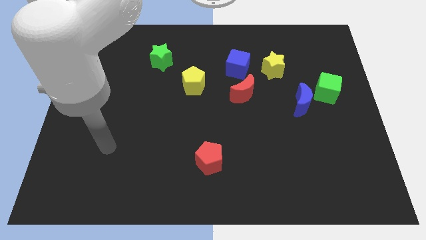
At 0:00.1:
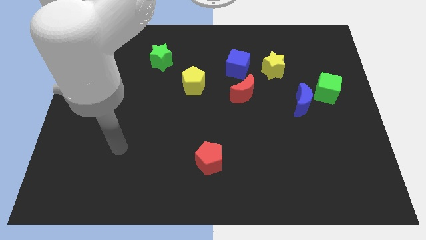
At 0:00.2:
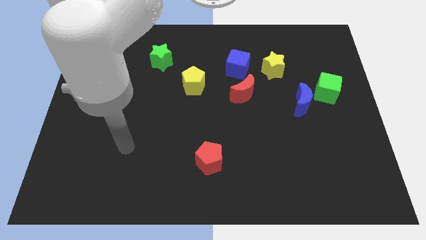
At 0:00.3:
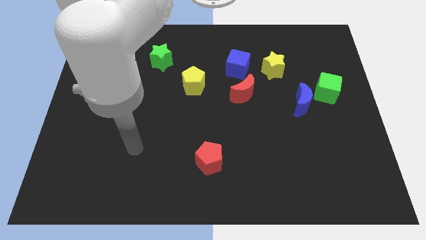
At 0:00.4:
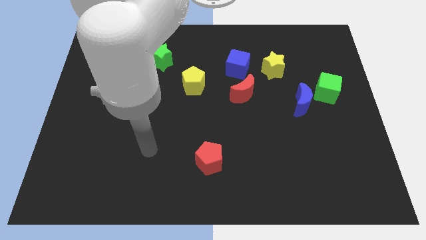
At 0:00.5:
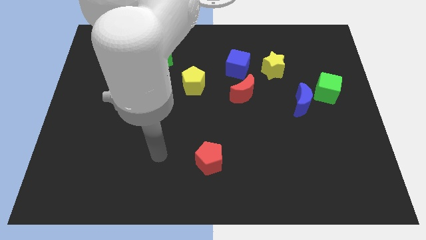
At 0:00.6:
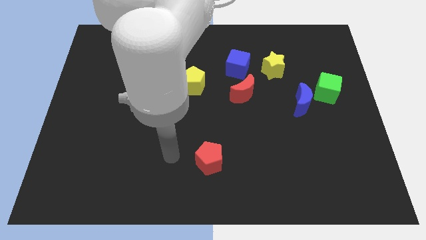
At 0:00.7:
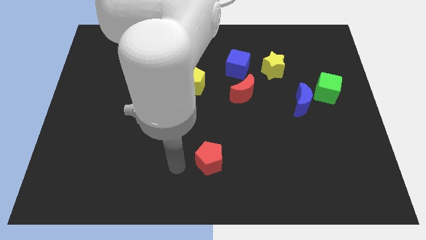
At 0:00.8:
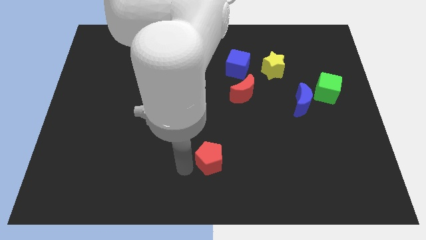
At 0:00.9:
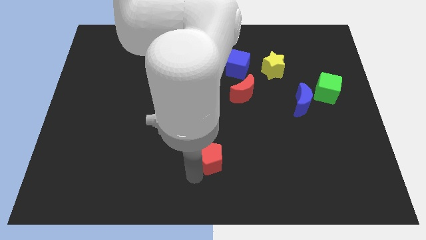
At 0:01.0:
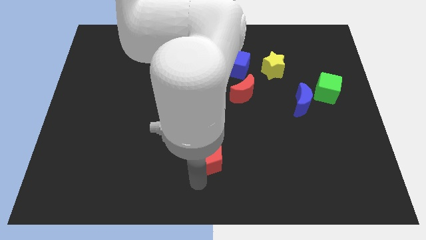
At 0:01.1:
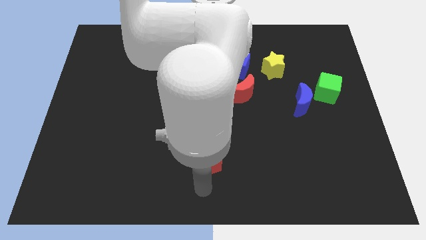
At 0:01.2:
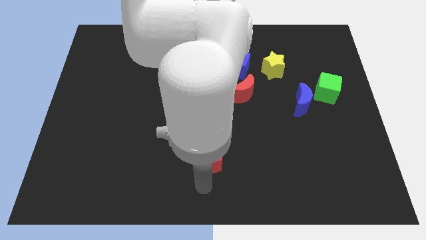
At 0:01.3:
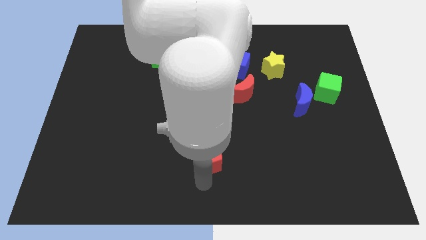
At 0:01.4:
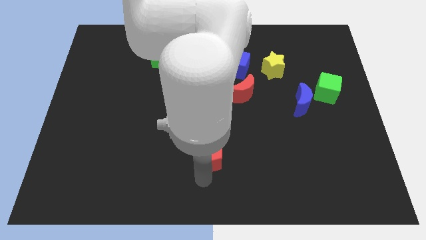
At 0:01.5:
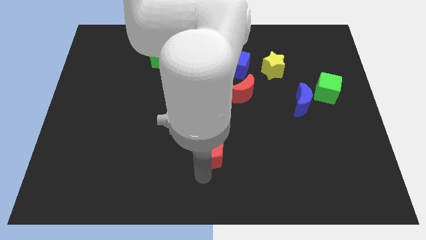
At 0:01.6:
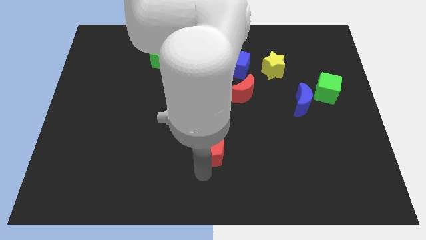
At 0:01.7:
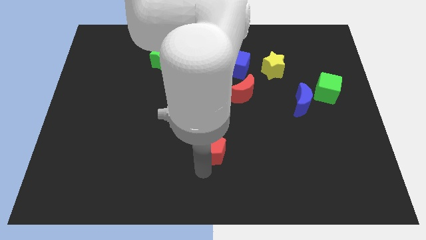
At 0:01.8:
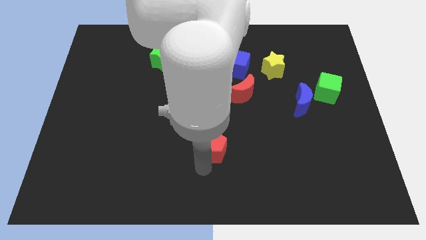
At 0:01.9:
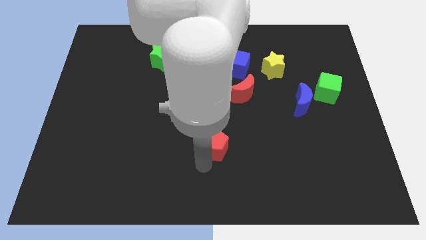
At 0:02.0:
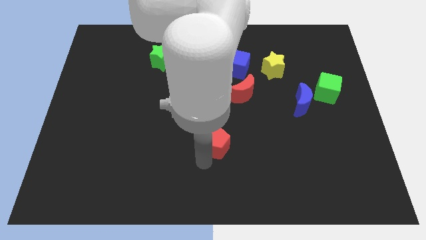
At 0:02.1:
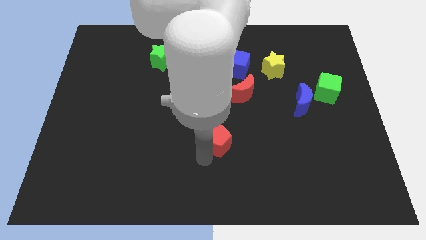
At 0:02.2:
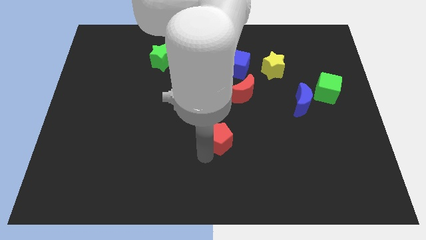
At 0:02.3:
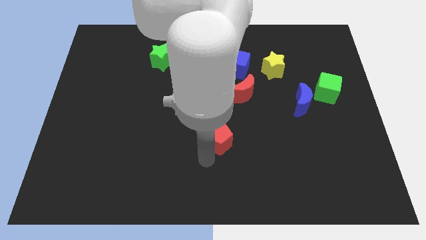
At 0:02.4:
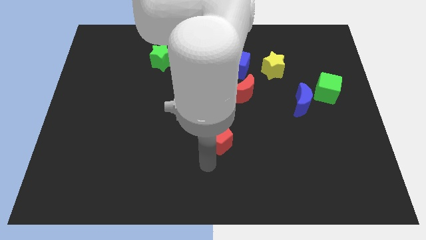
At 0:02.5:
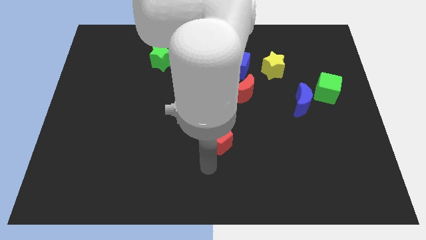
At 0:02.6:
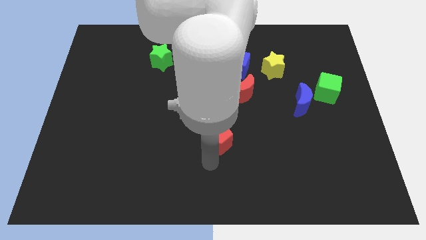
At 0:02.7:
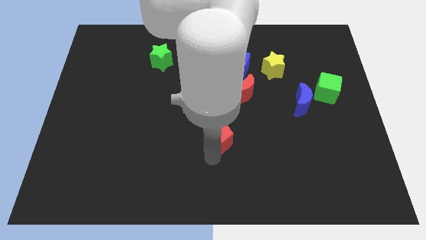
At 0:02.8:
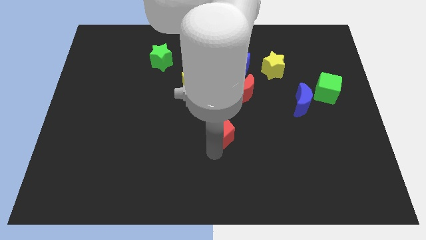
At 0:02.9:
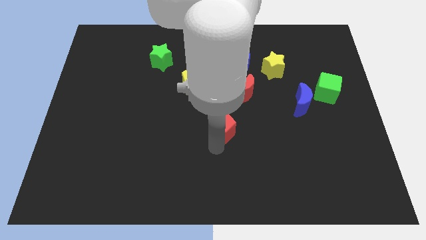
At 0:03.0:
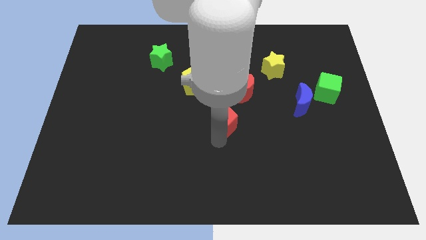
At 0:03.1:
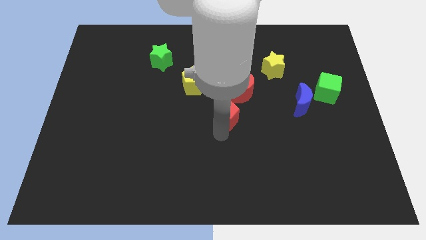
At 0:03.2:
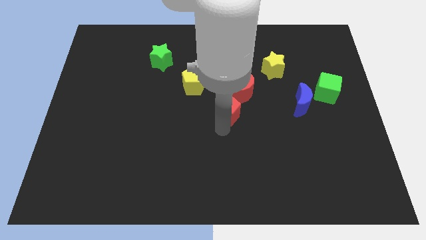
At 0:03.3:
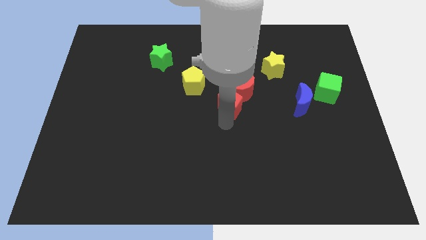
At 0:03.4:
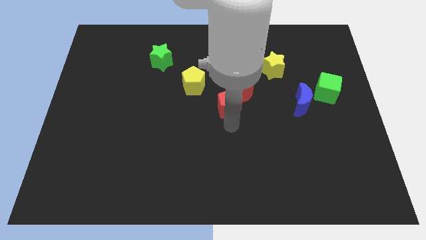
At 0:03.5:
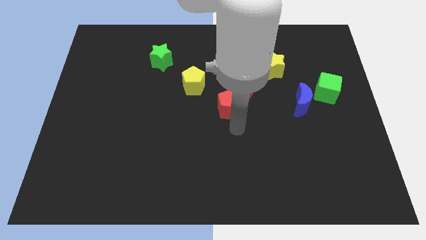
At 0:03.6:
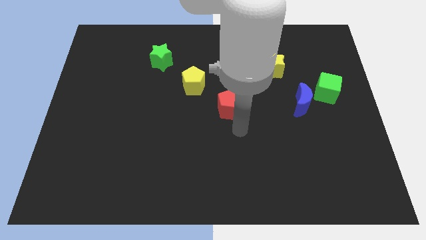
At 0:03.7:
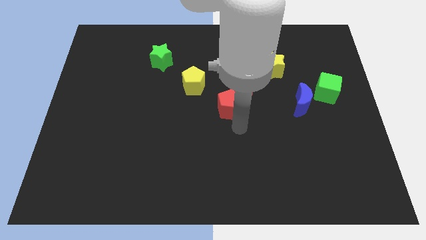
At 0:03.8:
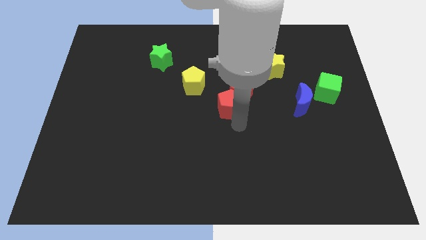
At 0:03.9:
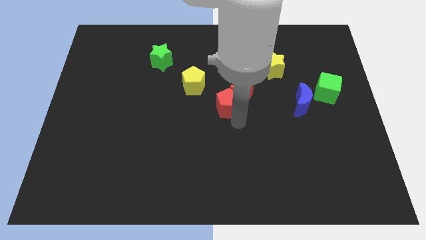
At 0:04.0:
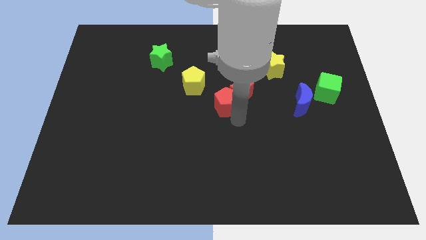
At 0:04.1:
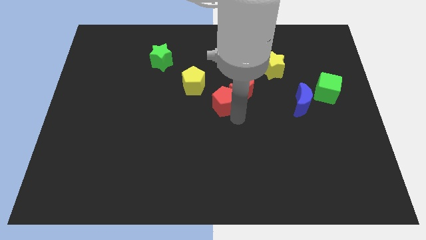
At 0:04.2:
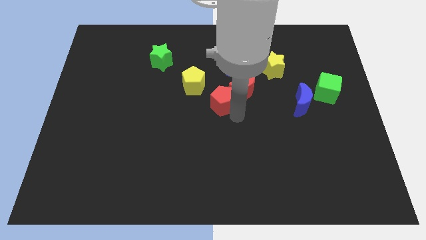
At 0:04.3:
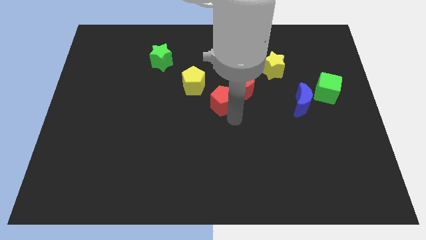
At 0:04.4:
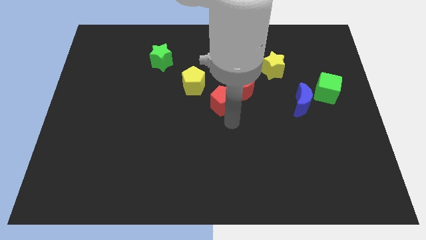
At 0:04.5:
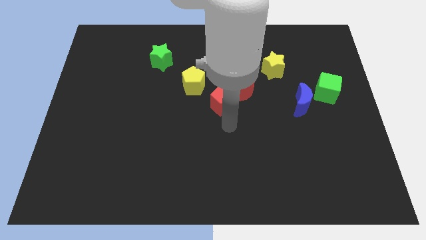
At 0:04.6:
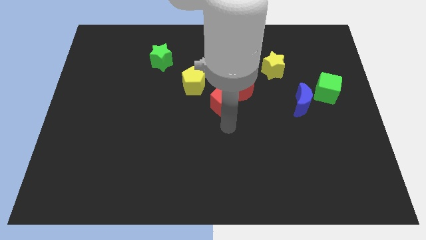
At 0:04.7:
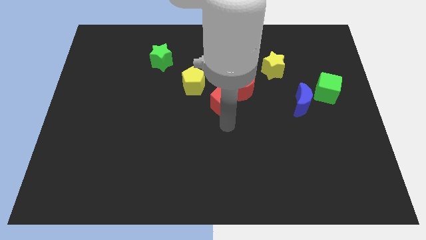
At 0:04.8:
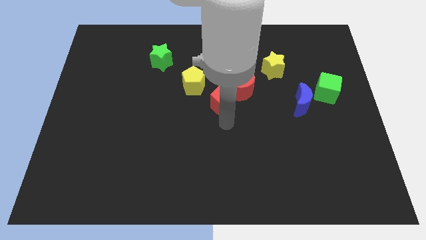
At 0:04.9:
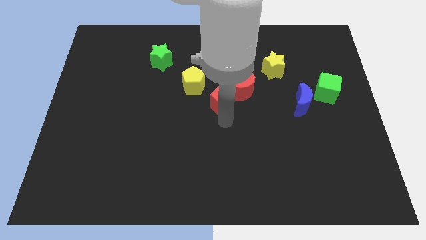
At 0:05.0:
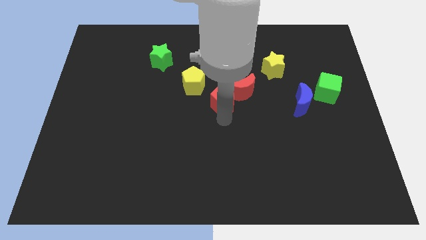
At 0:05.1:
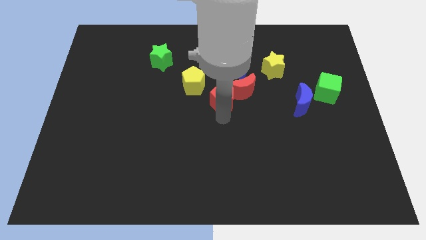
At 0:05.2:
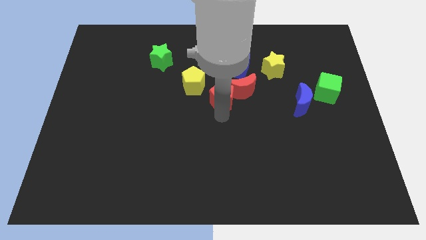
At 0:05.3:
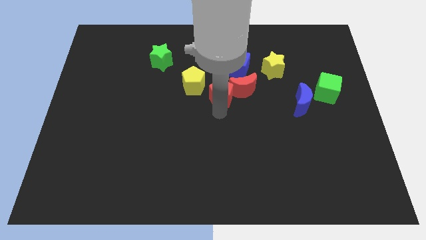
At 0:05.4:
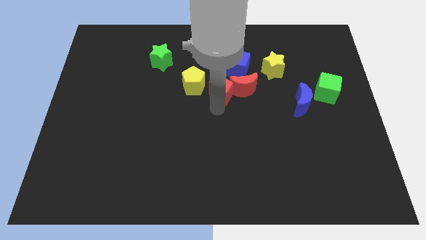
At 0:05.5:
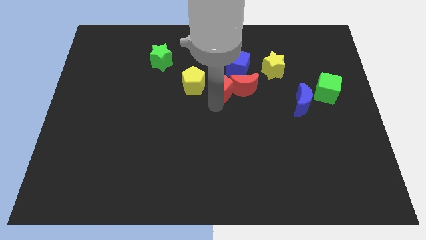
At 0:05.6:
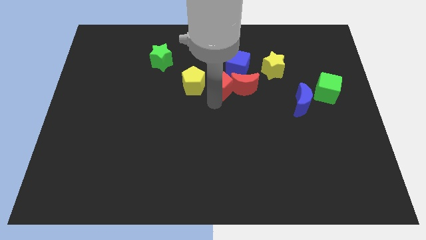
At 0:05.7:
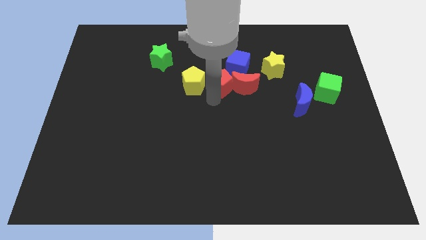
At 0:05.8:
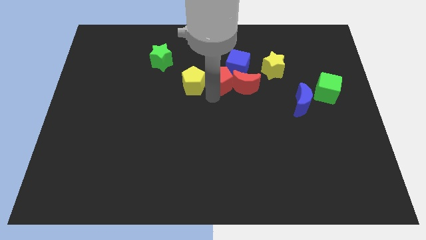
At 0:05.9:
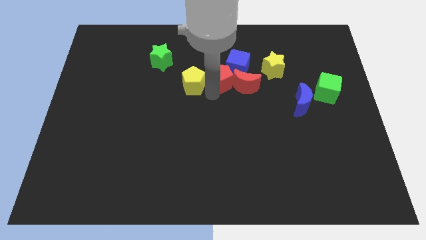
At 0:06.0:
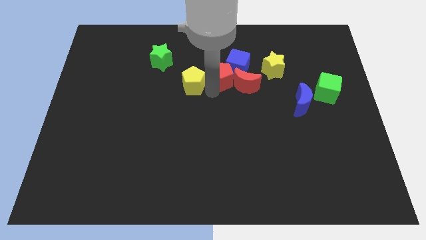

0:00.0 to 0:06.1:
slide the red pentagon to the blue cube

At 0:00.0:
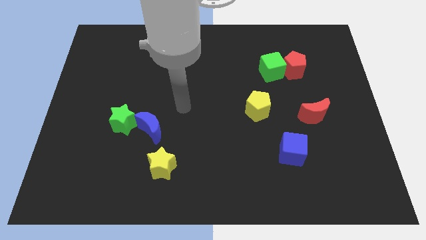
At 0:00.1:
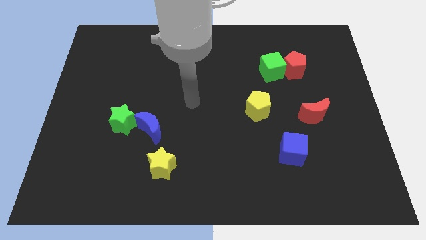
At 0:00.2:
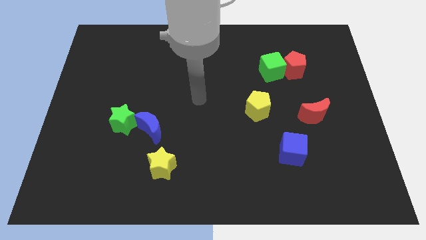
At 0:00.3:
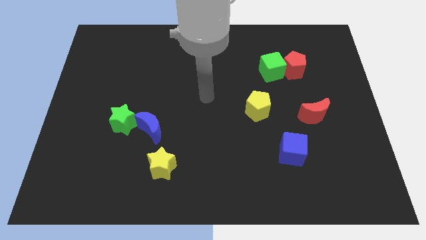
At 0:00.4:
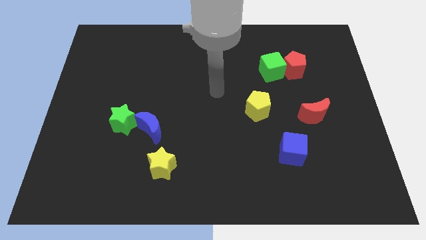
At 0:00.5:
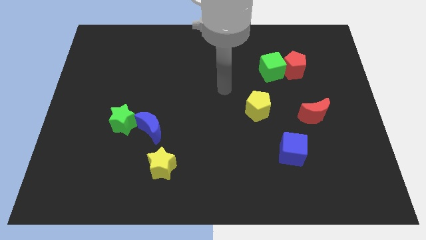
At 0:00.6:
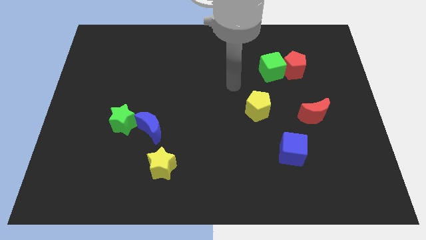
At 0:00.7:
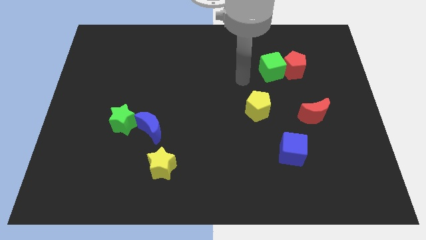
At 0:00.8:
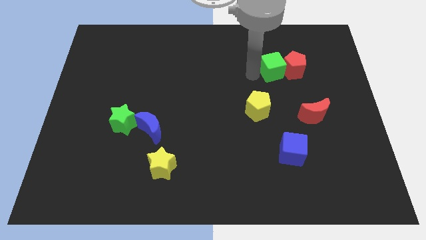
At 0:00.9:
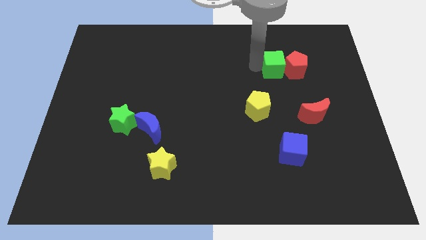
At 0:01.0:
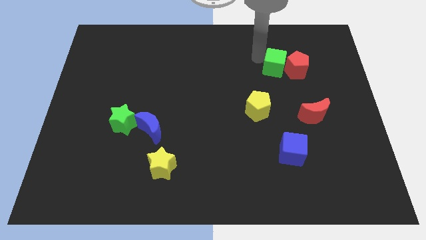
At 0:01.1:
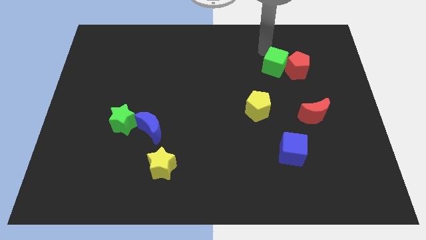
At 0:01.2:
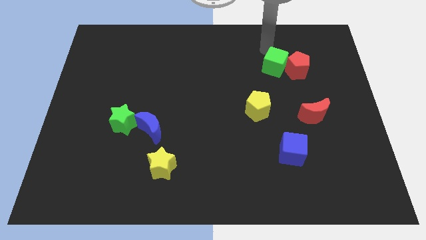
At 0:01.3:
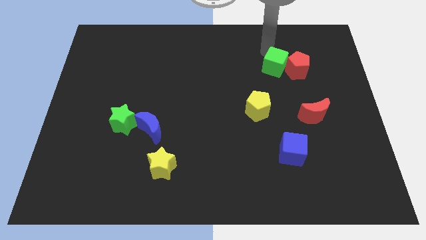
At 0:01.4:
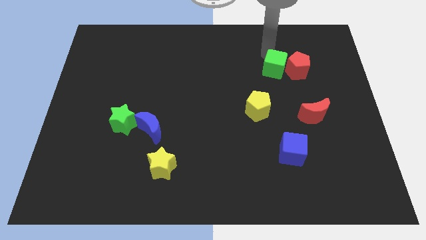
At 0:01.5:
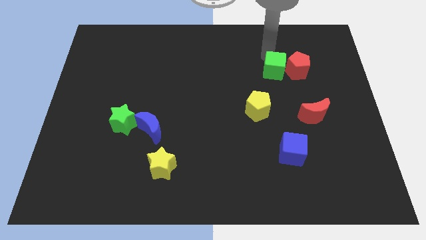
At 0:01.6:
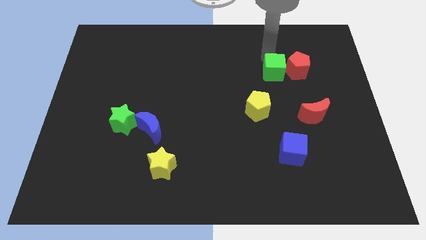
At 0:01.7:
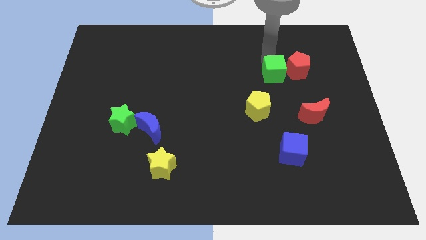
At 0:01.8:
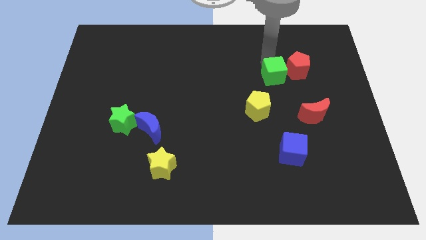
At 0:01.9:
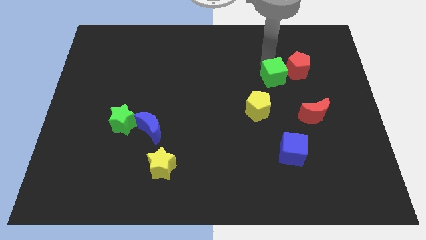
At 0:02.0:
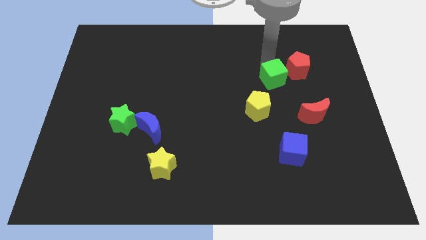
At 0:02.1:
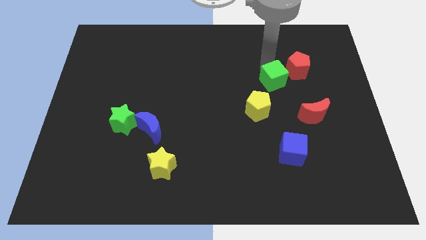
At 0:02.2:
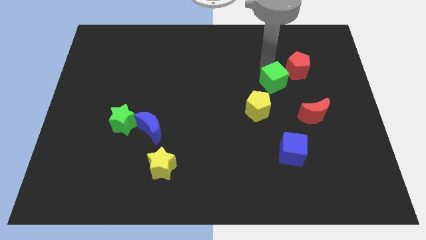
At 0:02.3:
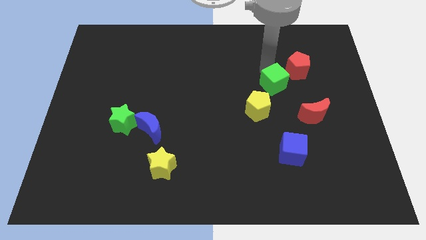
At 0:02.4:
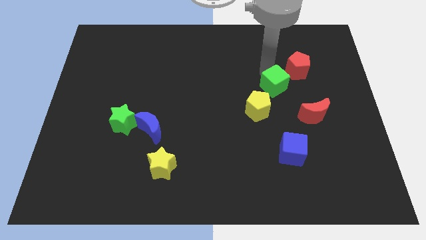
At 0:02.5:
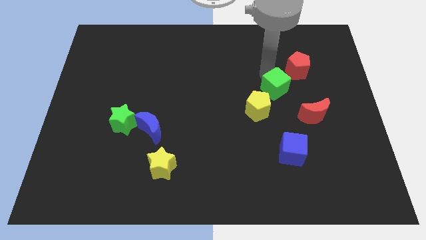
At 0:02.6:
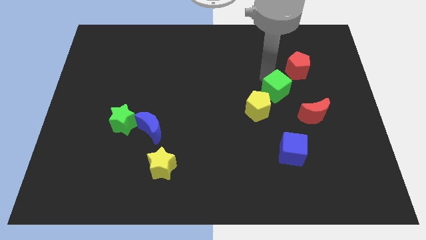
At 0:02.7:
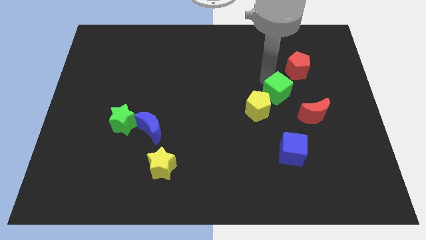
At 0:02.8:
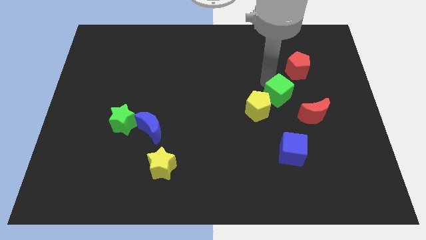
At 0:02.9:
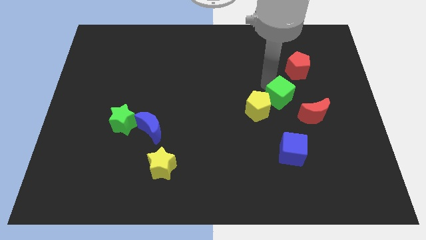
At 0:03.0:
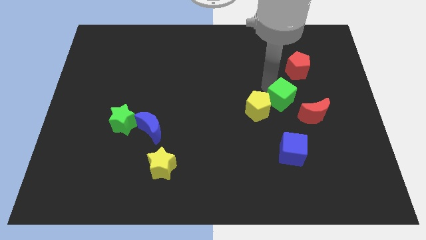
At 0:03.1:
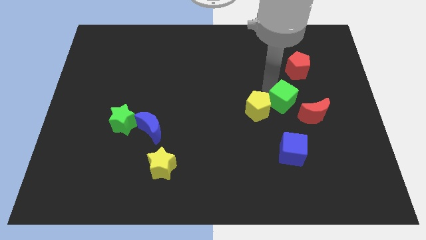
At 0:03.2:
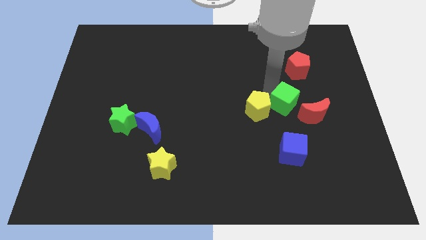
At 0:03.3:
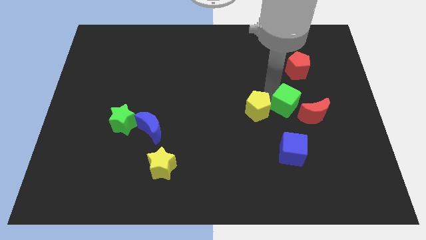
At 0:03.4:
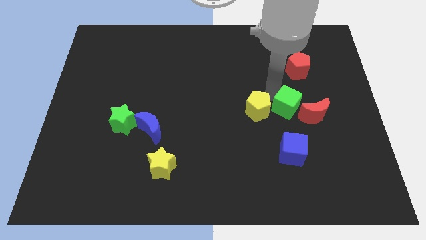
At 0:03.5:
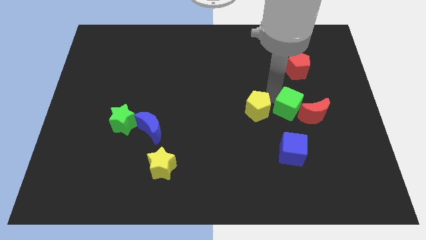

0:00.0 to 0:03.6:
slide the green cube next to the red moon
